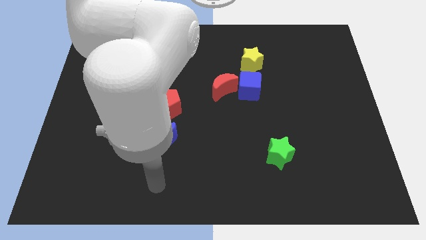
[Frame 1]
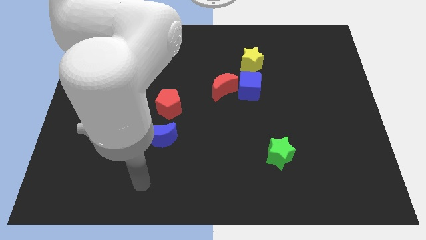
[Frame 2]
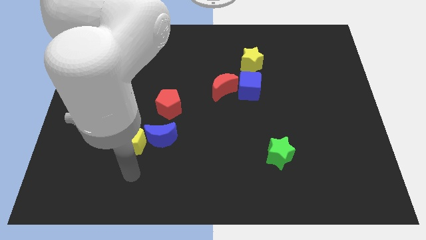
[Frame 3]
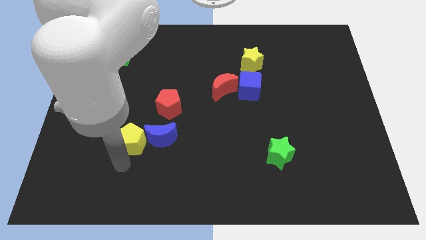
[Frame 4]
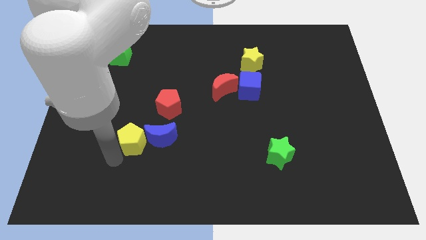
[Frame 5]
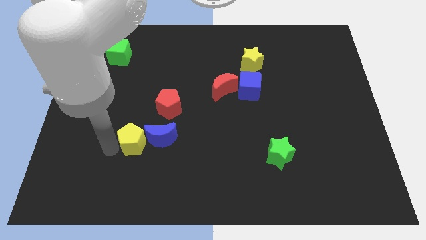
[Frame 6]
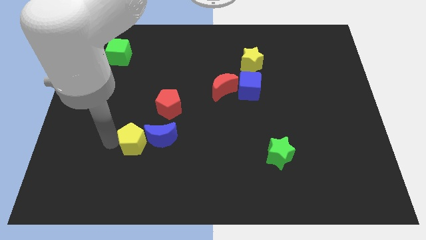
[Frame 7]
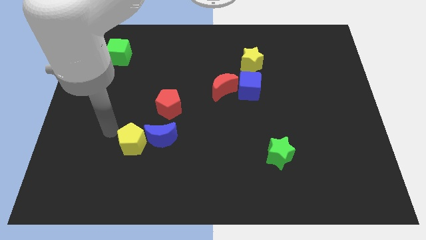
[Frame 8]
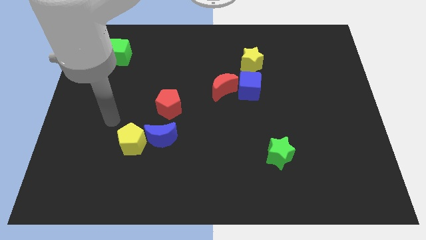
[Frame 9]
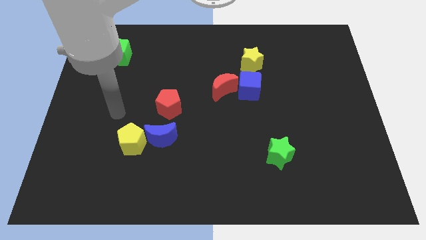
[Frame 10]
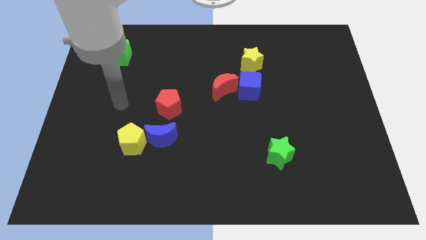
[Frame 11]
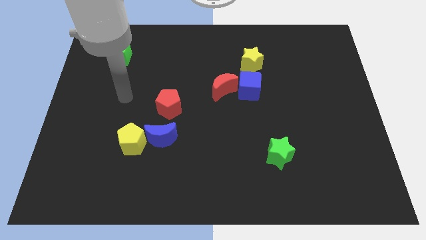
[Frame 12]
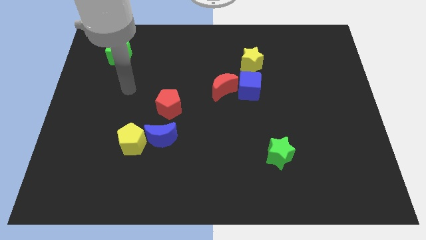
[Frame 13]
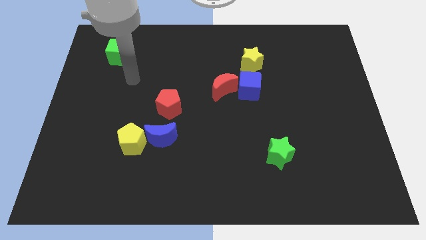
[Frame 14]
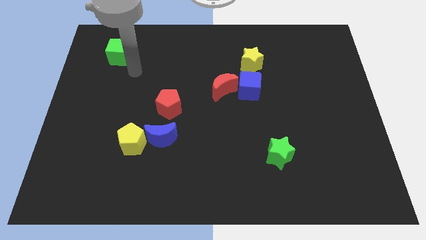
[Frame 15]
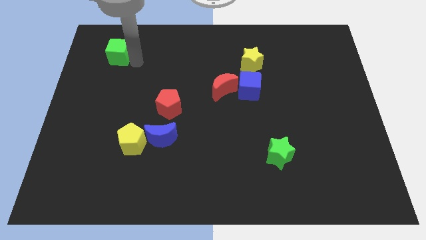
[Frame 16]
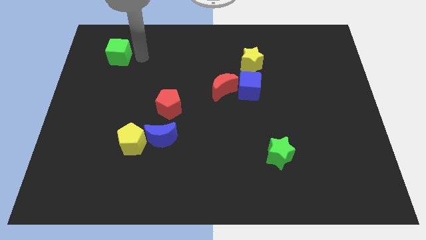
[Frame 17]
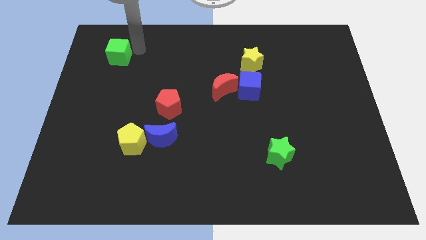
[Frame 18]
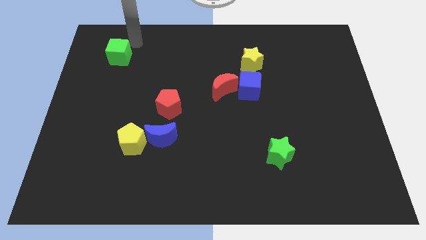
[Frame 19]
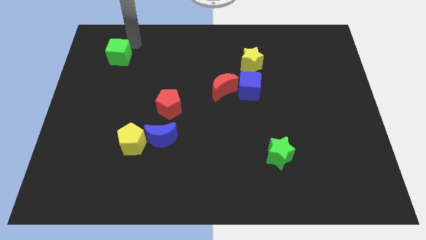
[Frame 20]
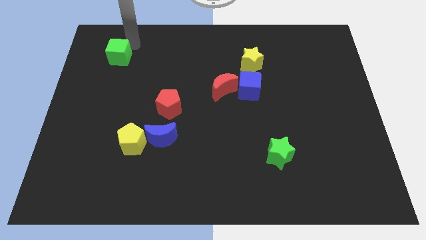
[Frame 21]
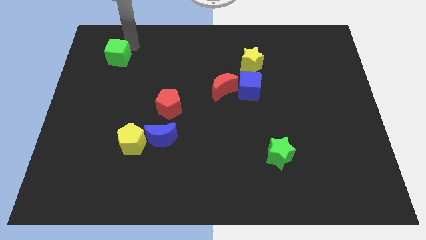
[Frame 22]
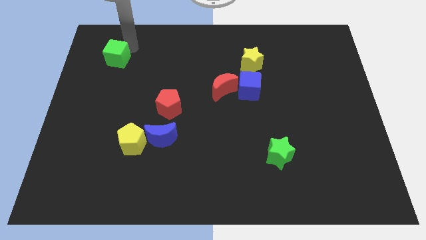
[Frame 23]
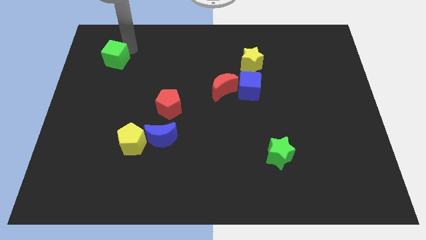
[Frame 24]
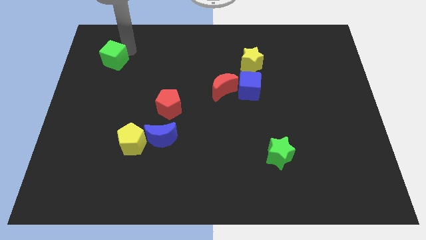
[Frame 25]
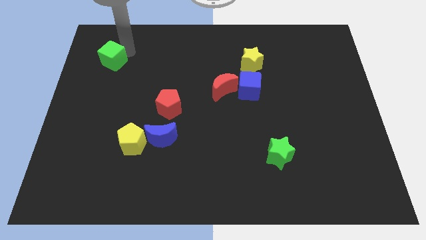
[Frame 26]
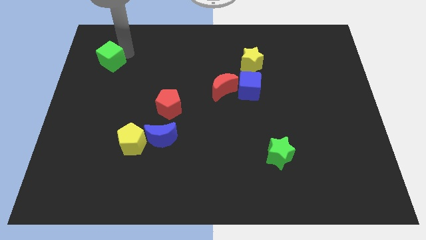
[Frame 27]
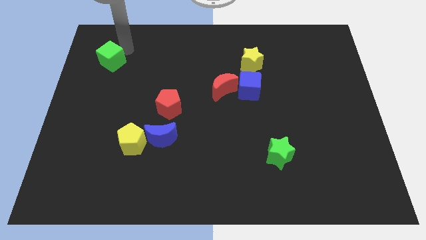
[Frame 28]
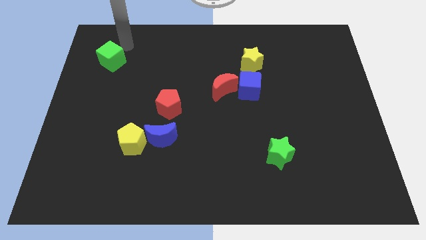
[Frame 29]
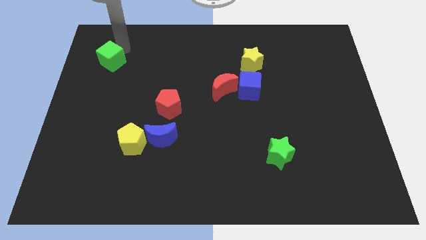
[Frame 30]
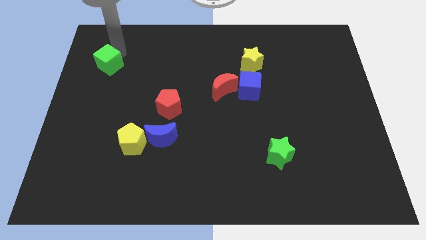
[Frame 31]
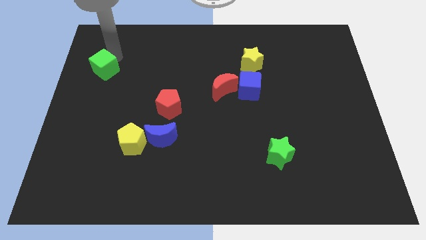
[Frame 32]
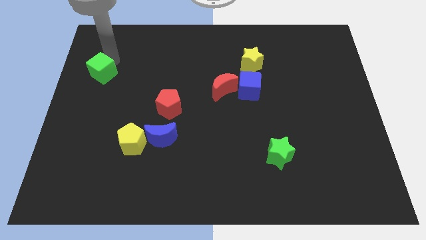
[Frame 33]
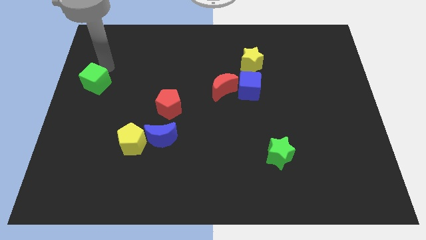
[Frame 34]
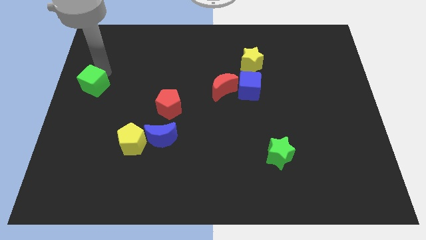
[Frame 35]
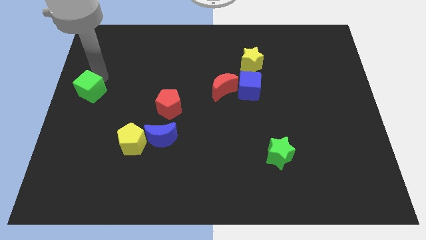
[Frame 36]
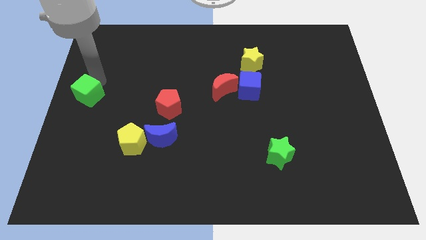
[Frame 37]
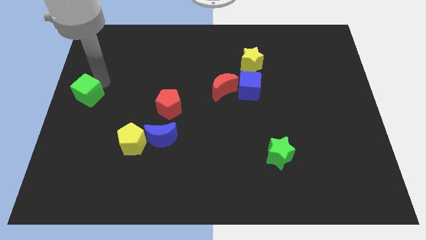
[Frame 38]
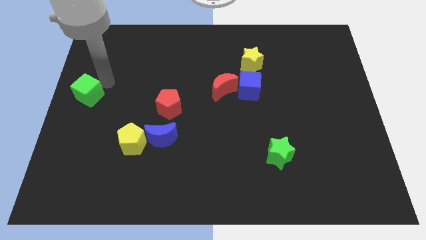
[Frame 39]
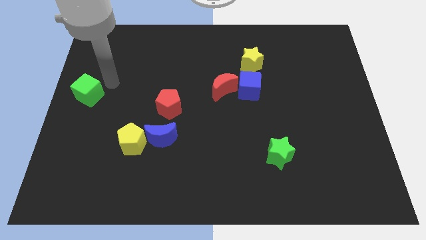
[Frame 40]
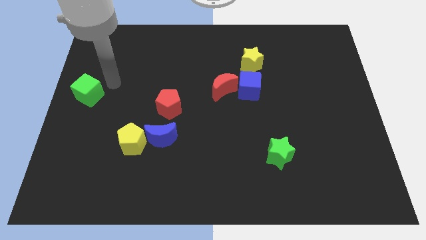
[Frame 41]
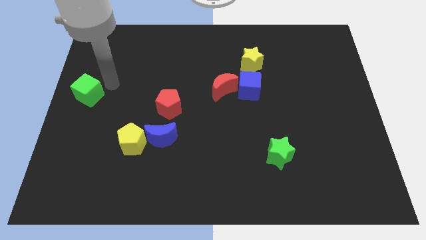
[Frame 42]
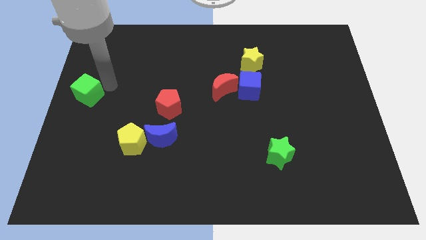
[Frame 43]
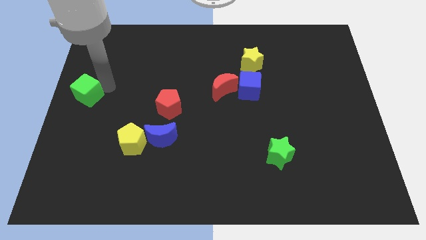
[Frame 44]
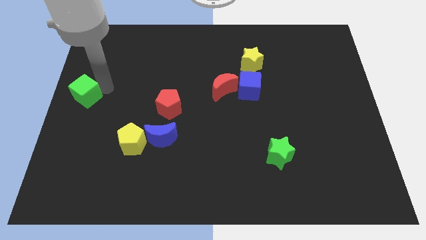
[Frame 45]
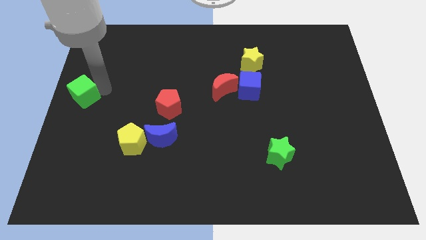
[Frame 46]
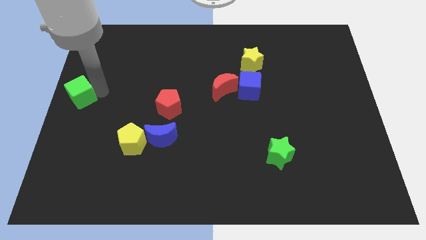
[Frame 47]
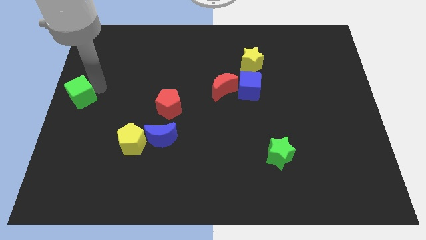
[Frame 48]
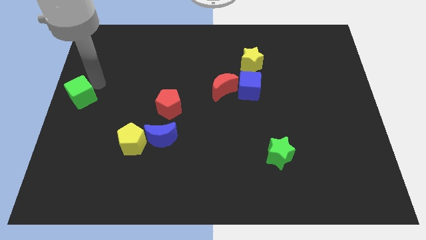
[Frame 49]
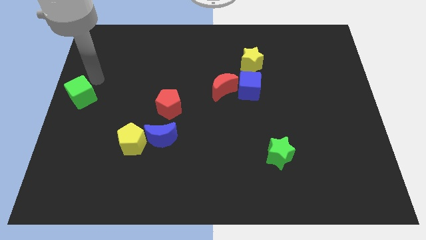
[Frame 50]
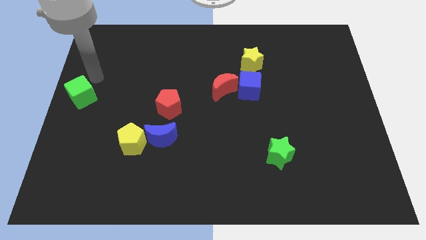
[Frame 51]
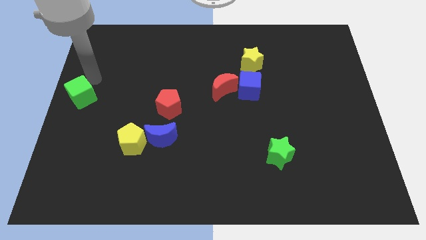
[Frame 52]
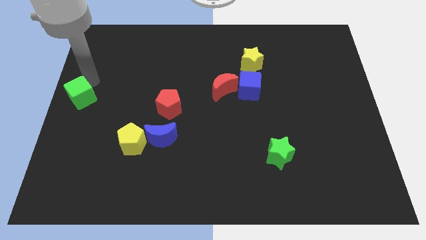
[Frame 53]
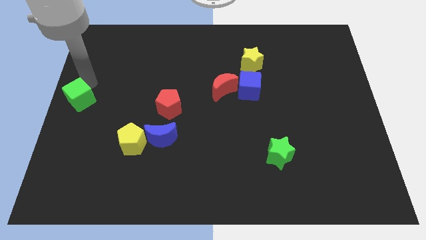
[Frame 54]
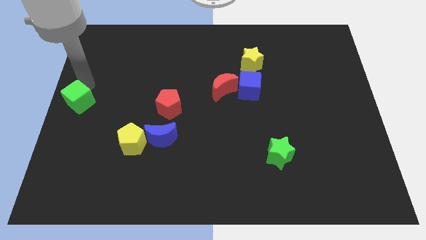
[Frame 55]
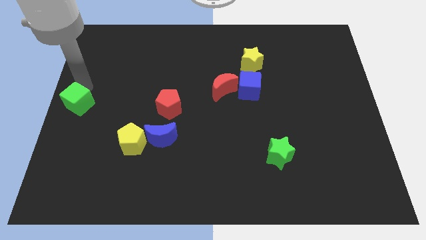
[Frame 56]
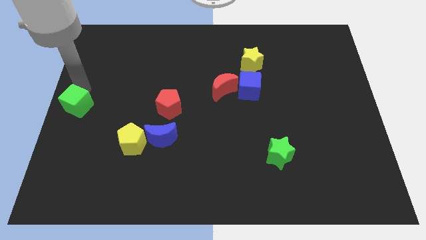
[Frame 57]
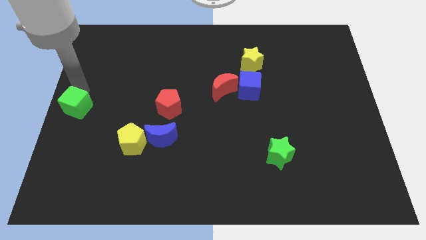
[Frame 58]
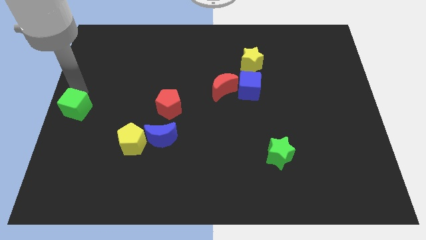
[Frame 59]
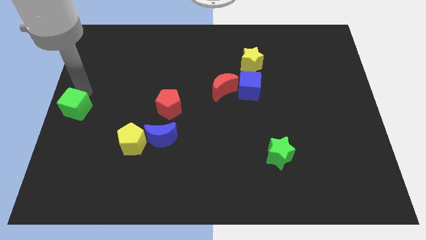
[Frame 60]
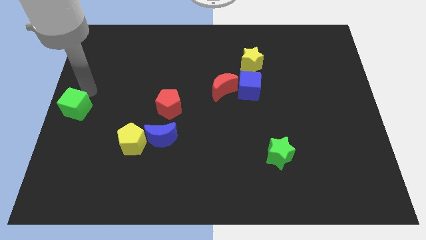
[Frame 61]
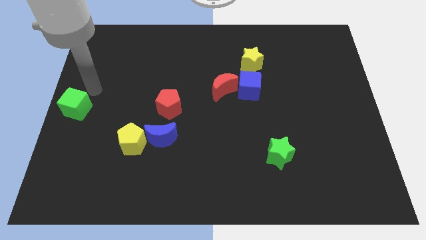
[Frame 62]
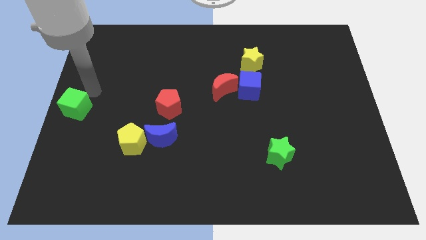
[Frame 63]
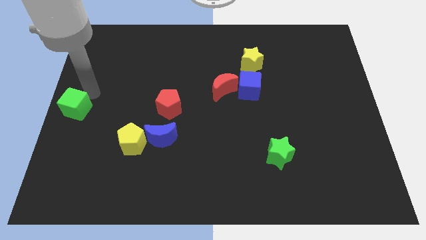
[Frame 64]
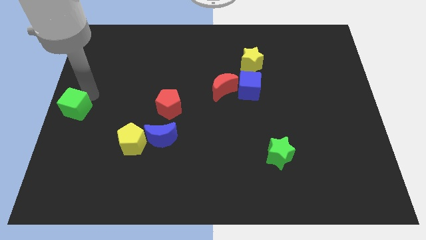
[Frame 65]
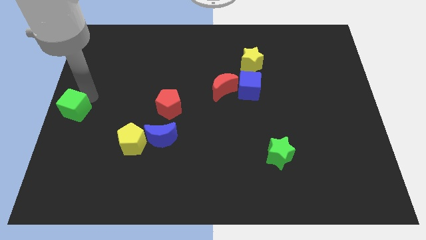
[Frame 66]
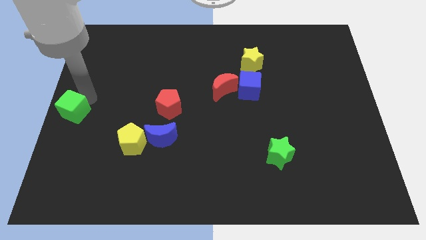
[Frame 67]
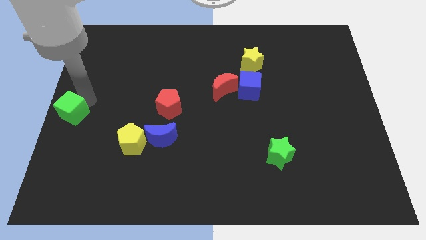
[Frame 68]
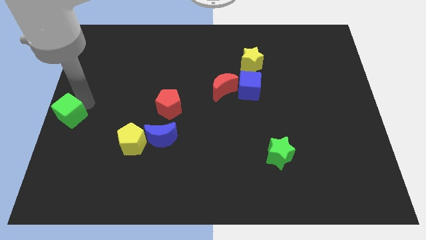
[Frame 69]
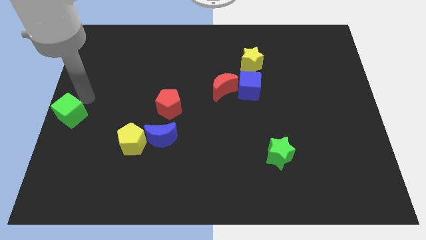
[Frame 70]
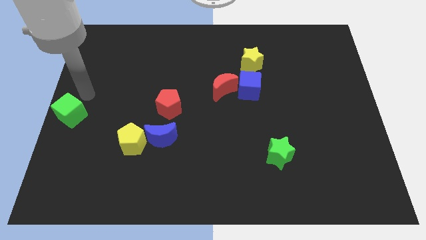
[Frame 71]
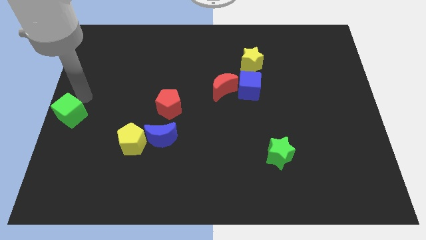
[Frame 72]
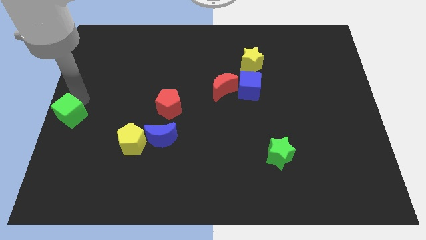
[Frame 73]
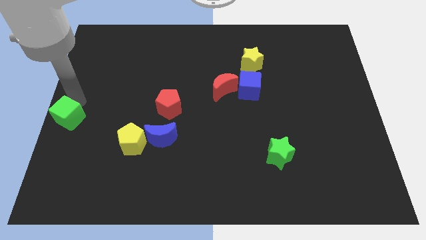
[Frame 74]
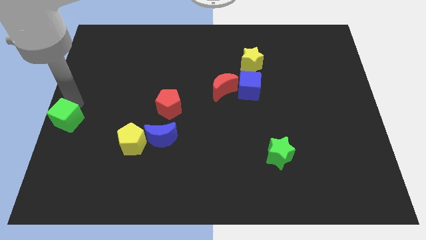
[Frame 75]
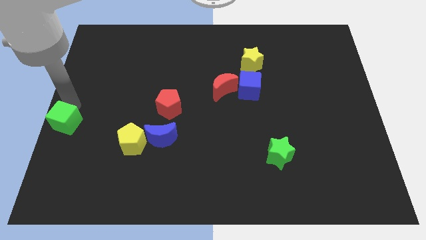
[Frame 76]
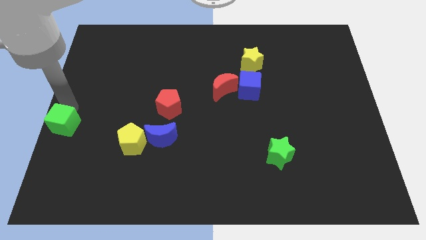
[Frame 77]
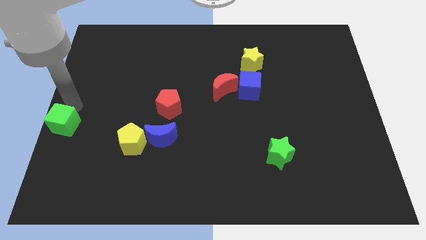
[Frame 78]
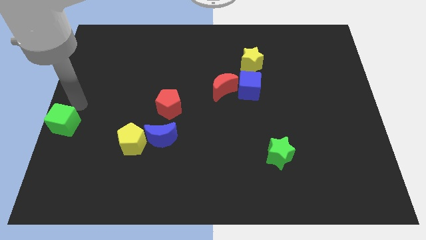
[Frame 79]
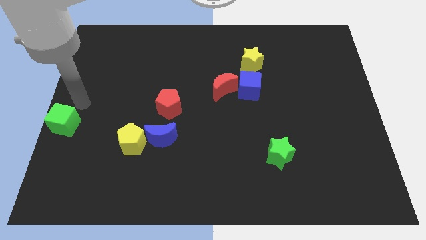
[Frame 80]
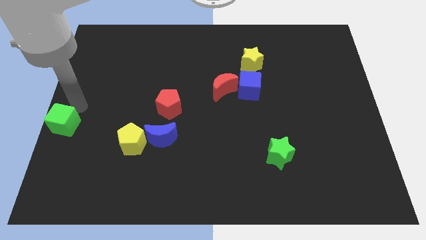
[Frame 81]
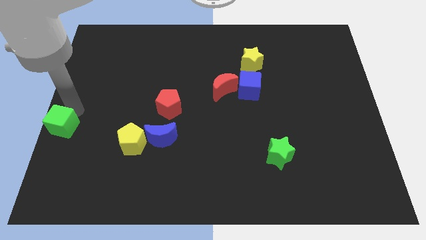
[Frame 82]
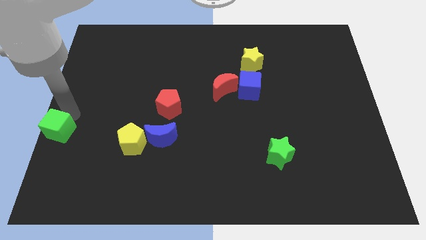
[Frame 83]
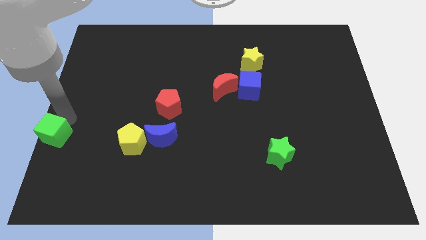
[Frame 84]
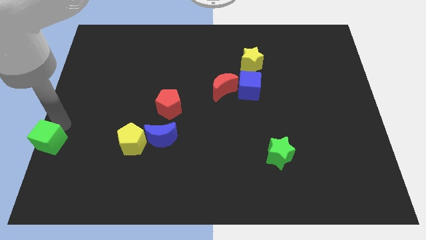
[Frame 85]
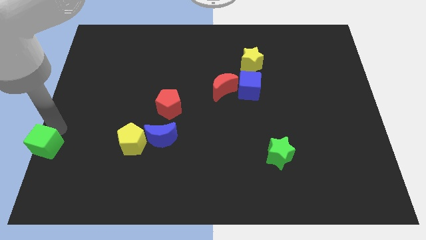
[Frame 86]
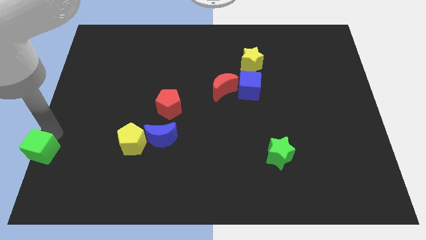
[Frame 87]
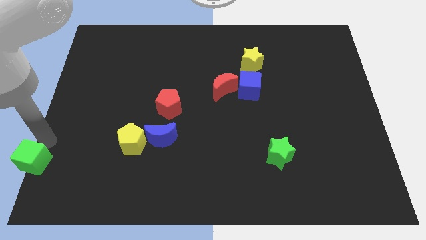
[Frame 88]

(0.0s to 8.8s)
push the green cube to the bottom left of the board
